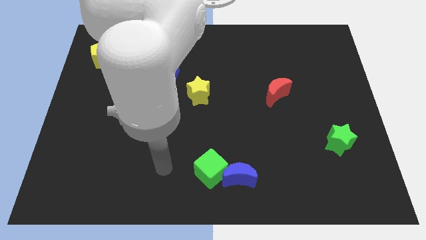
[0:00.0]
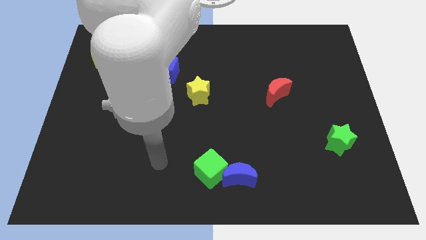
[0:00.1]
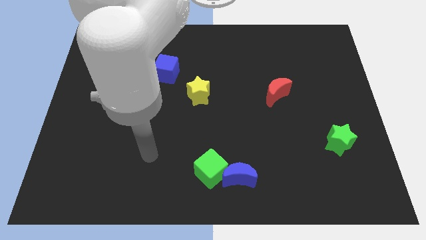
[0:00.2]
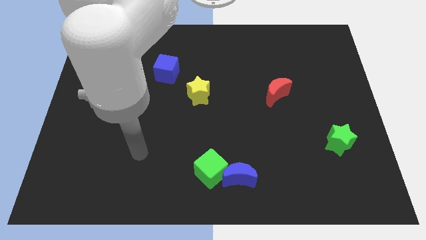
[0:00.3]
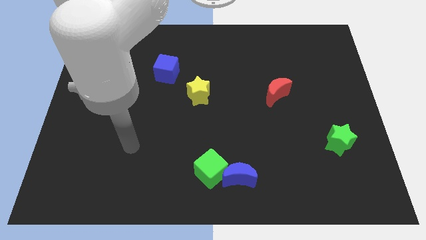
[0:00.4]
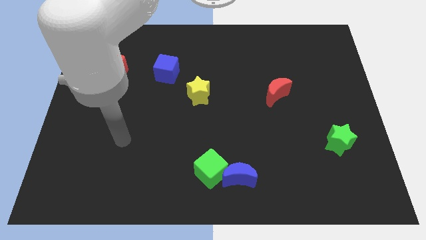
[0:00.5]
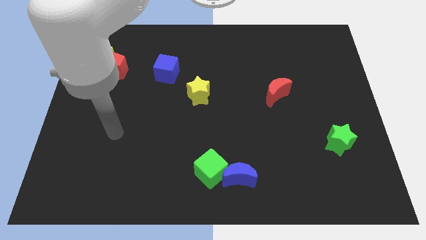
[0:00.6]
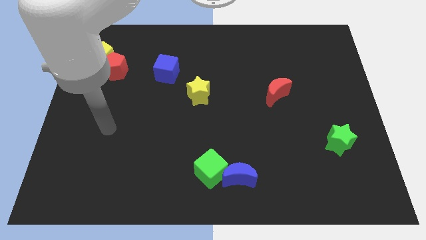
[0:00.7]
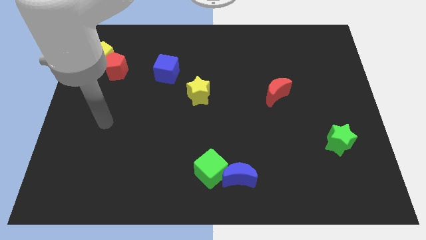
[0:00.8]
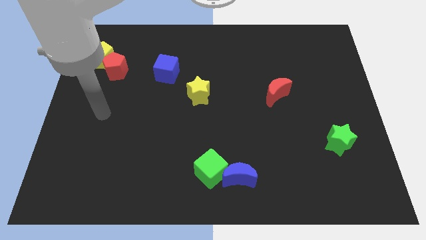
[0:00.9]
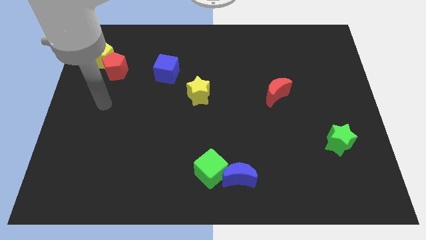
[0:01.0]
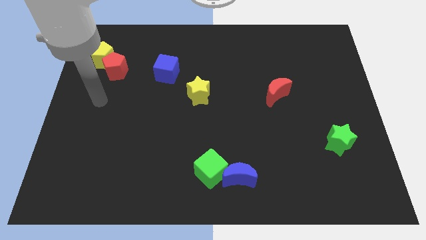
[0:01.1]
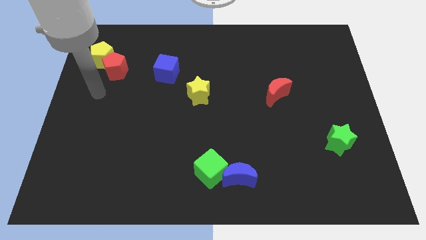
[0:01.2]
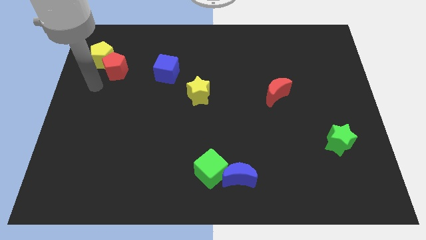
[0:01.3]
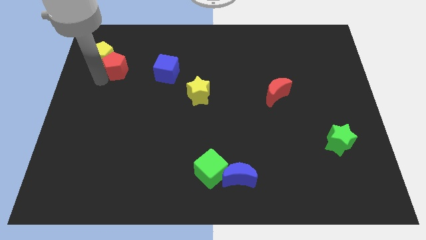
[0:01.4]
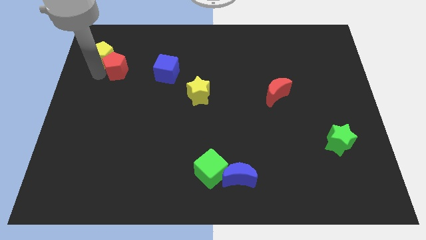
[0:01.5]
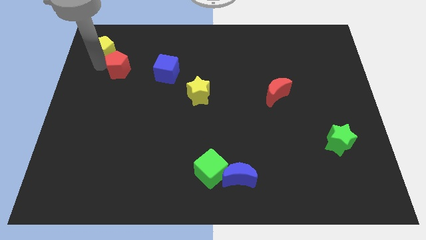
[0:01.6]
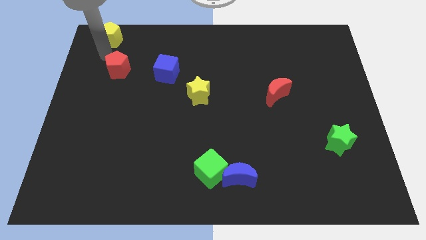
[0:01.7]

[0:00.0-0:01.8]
pull the red pentagon apart from the yellow pentagon

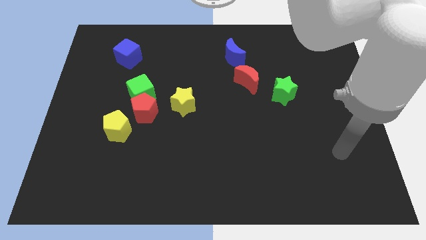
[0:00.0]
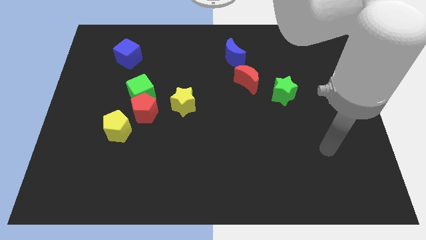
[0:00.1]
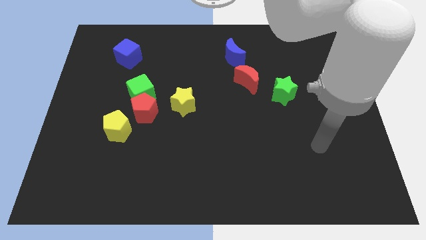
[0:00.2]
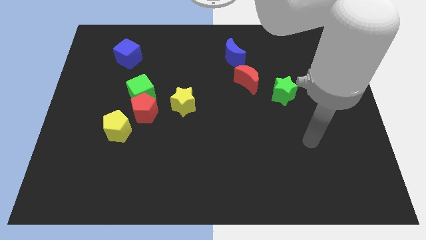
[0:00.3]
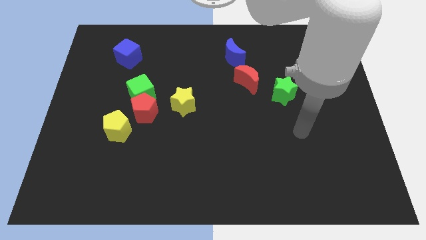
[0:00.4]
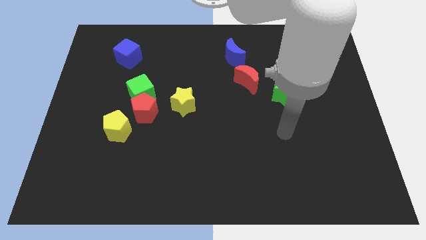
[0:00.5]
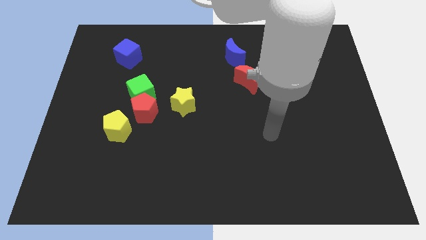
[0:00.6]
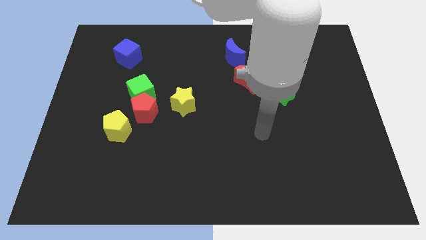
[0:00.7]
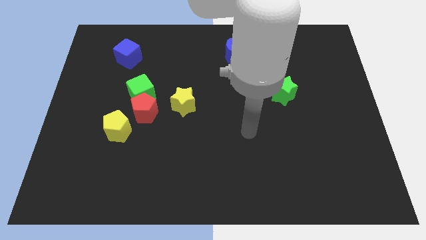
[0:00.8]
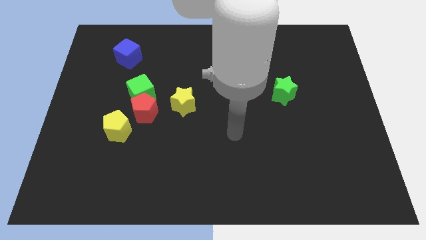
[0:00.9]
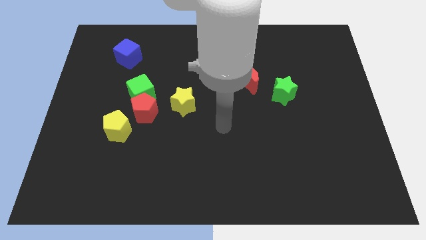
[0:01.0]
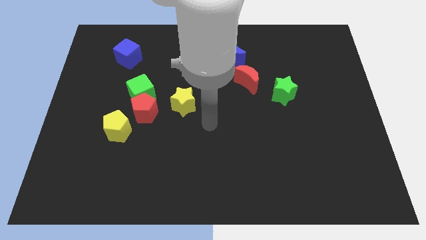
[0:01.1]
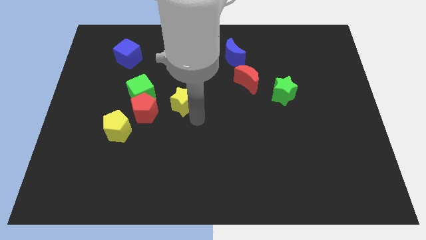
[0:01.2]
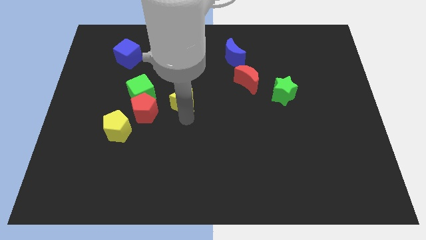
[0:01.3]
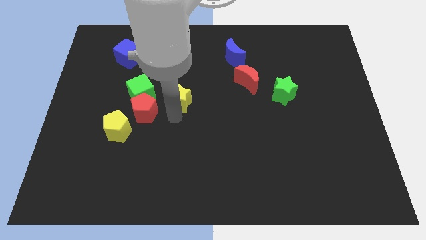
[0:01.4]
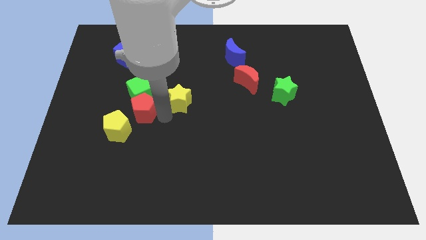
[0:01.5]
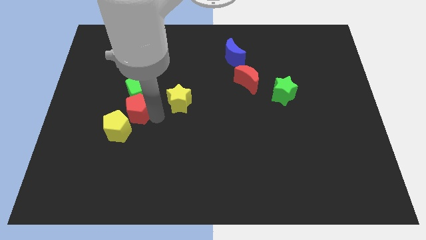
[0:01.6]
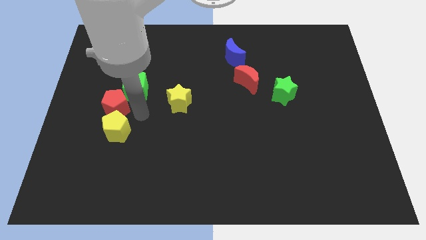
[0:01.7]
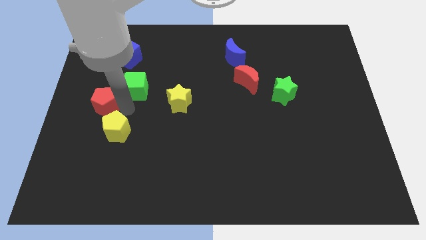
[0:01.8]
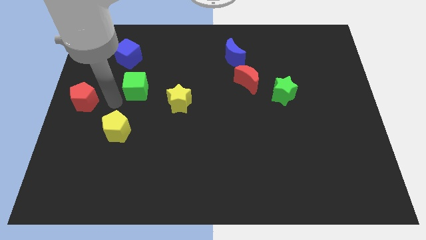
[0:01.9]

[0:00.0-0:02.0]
pull the green cube apart from the red pentagon

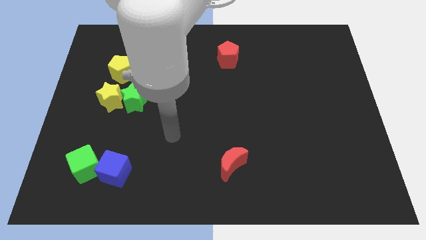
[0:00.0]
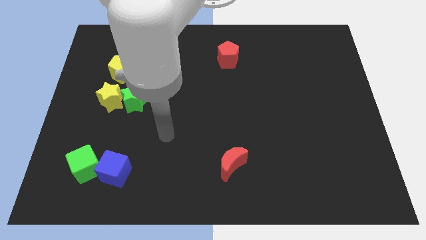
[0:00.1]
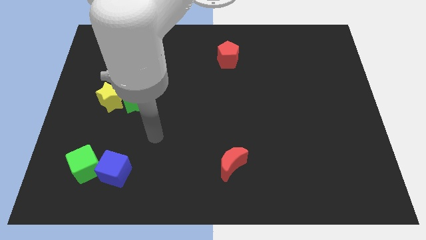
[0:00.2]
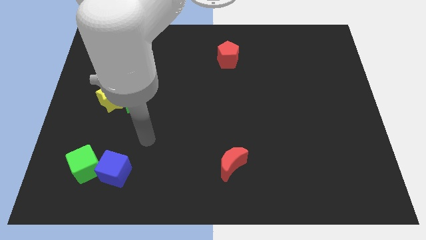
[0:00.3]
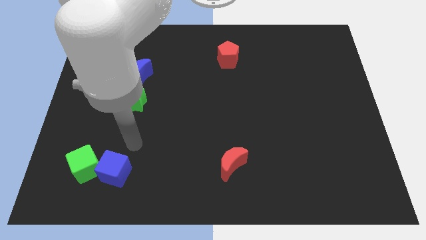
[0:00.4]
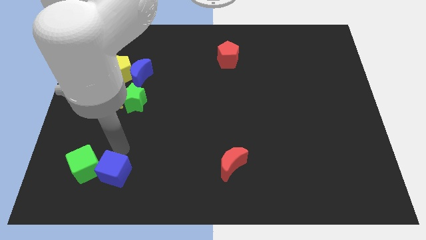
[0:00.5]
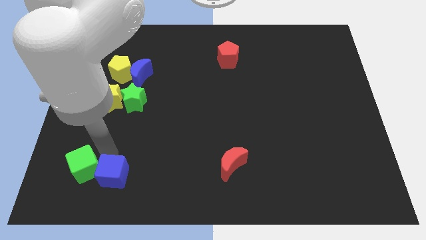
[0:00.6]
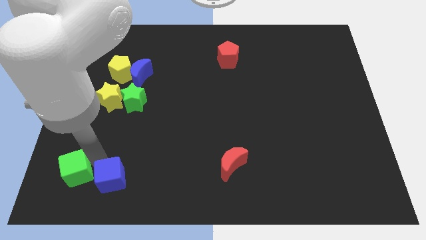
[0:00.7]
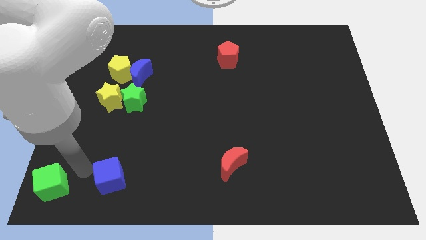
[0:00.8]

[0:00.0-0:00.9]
separate the blue cube from the green cube

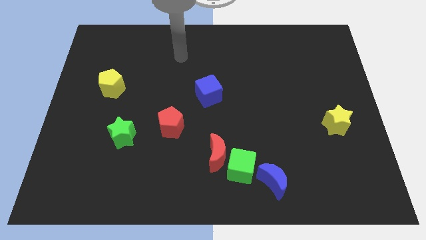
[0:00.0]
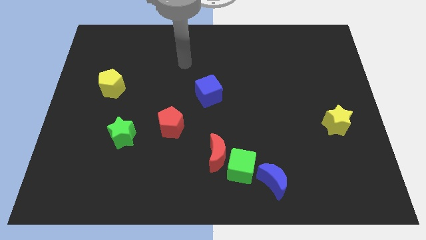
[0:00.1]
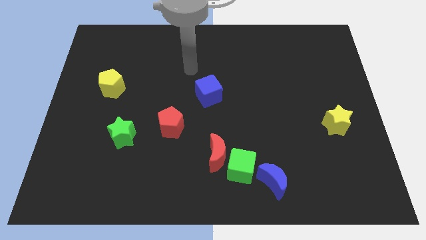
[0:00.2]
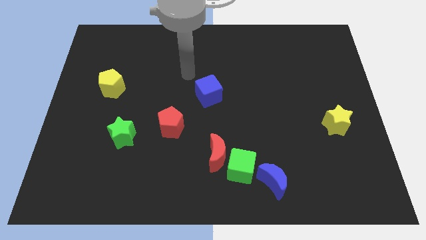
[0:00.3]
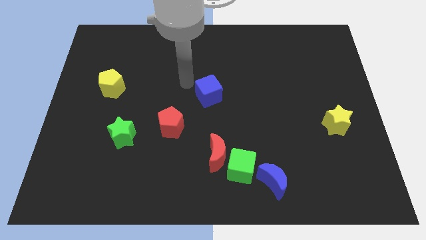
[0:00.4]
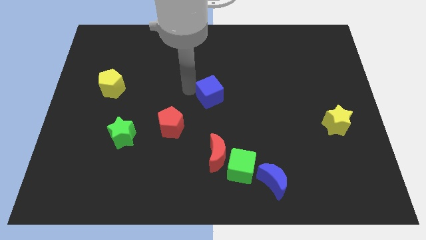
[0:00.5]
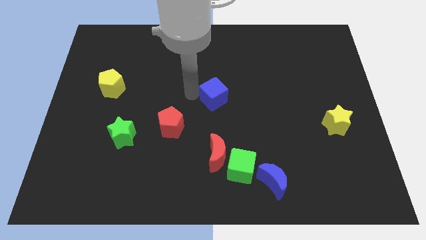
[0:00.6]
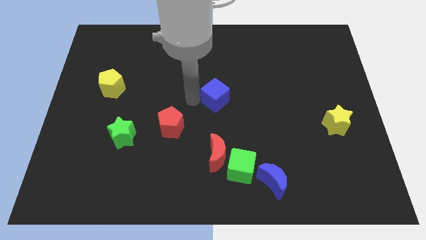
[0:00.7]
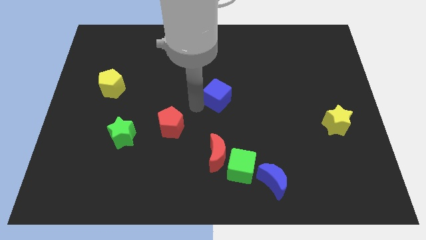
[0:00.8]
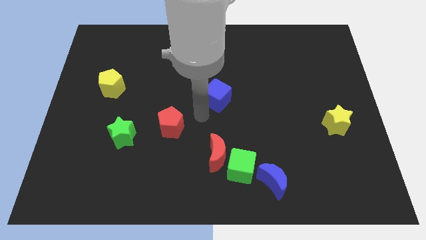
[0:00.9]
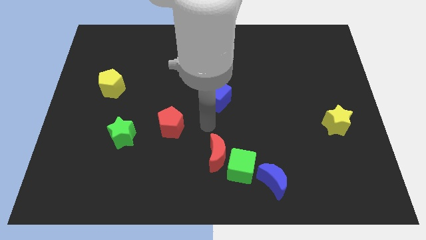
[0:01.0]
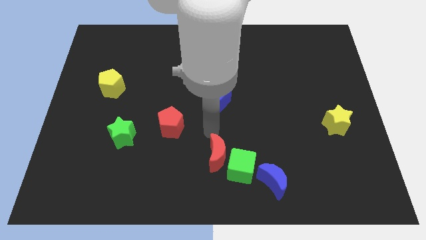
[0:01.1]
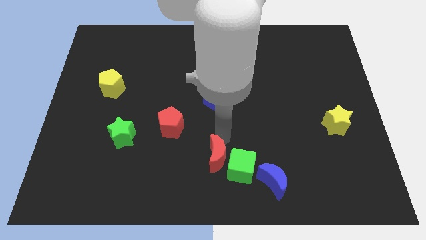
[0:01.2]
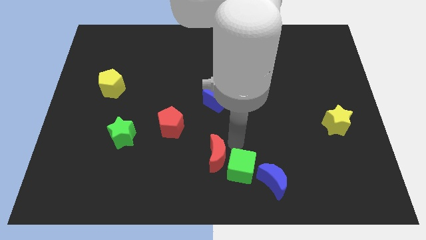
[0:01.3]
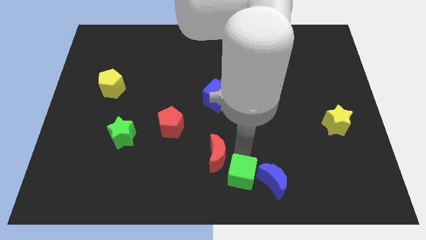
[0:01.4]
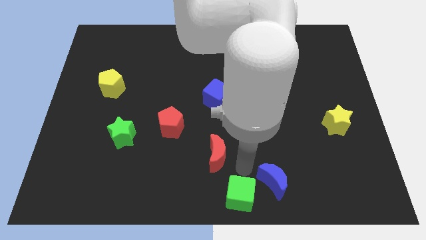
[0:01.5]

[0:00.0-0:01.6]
move the red moon away from the green cube

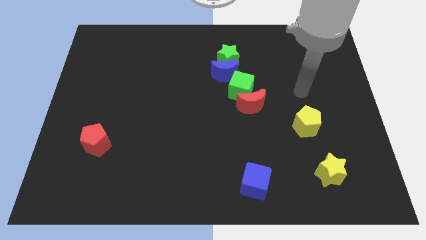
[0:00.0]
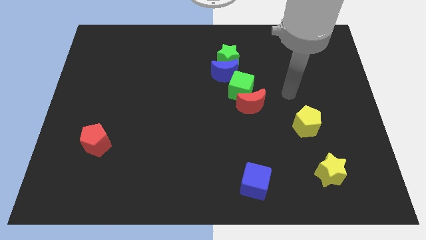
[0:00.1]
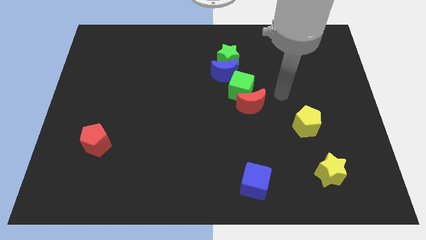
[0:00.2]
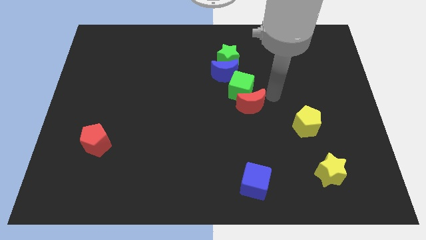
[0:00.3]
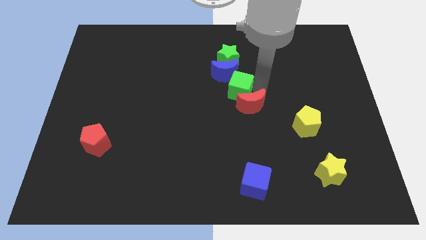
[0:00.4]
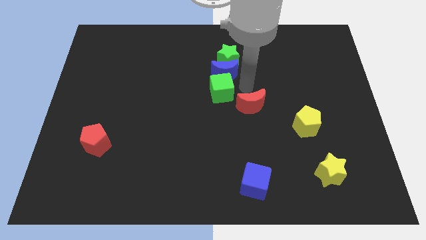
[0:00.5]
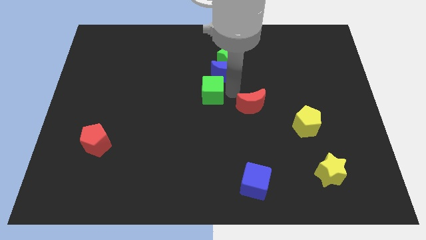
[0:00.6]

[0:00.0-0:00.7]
pull the red moon apart from the green cube

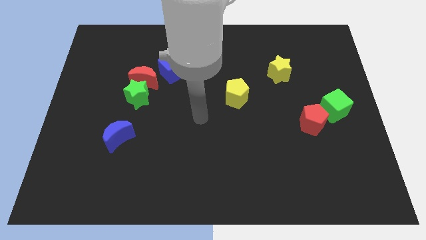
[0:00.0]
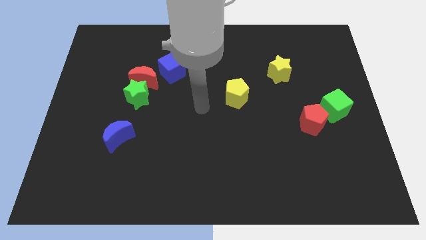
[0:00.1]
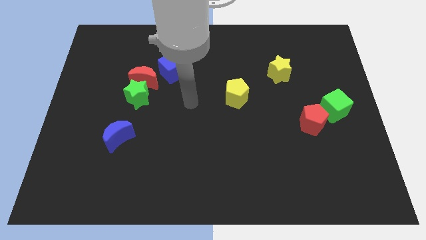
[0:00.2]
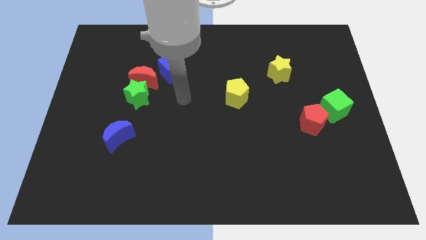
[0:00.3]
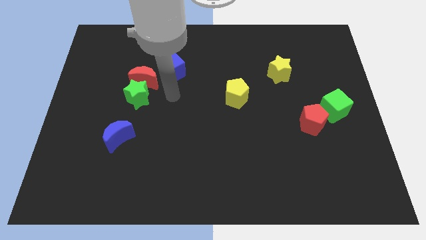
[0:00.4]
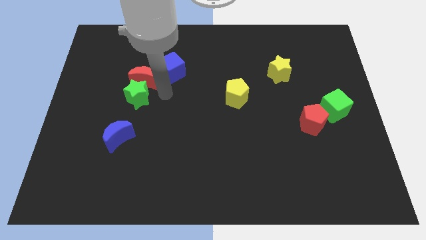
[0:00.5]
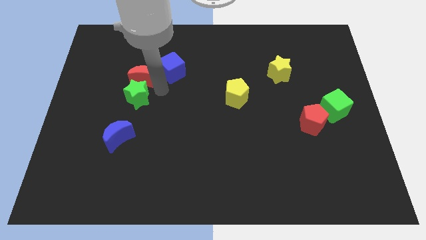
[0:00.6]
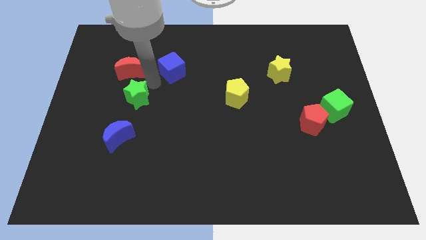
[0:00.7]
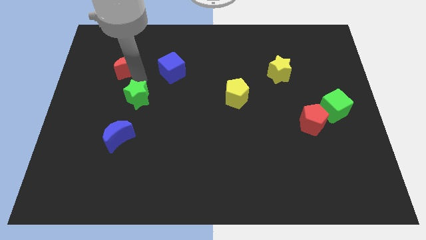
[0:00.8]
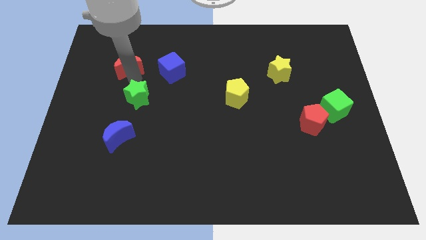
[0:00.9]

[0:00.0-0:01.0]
pull the green star apart from the red moon

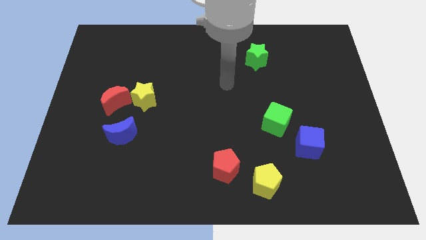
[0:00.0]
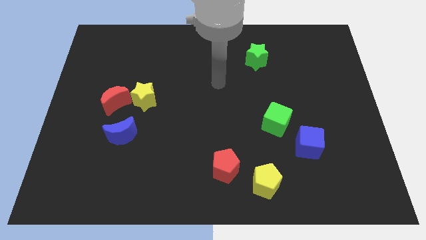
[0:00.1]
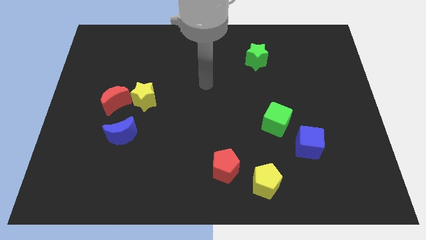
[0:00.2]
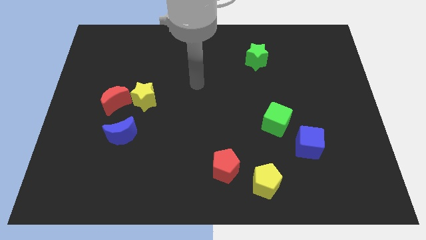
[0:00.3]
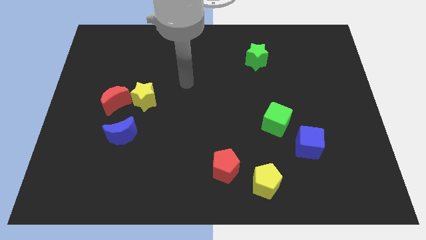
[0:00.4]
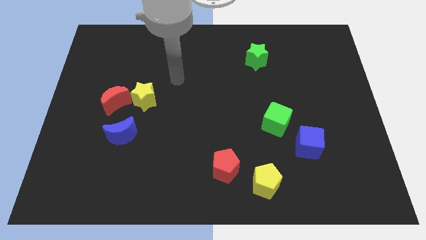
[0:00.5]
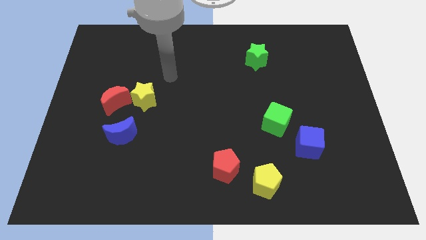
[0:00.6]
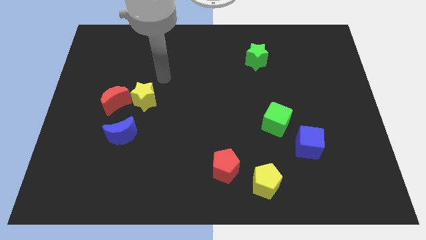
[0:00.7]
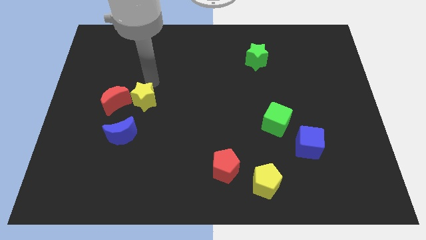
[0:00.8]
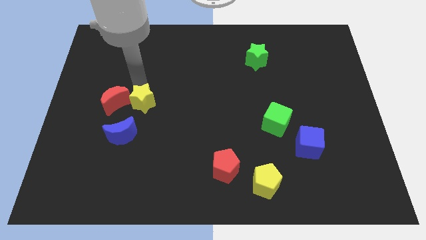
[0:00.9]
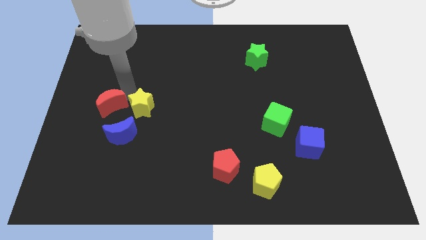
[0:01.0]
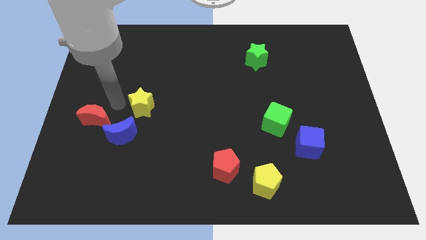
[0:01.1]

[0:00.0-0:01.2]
pull the yellow star apart from the red moon
